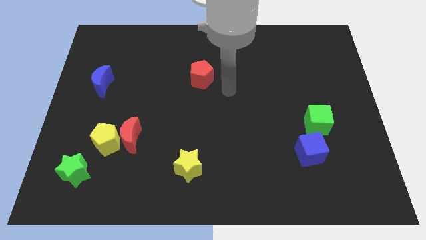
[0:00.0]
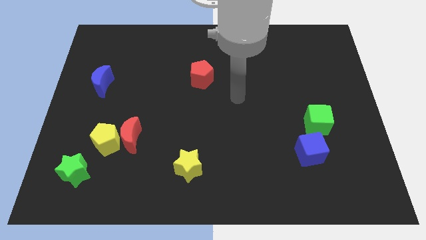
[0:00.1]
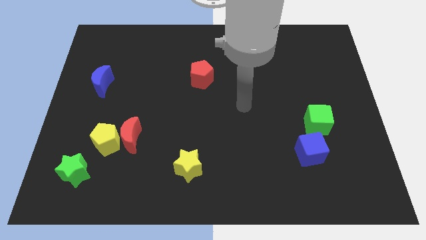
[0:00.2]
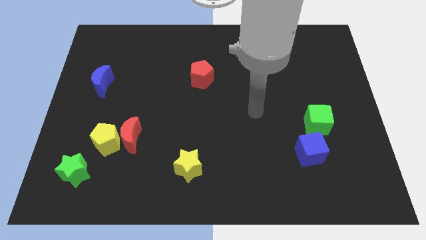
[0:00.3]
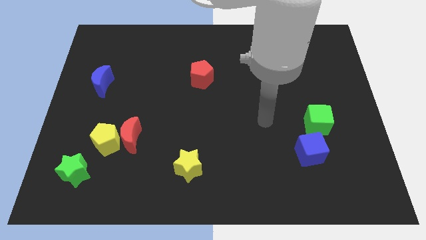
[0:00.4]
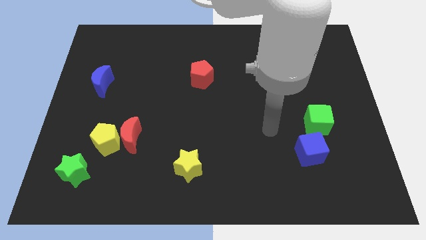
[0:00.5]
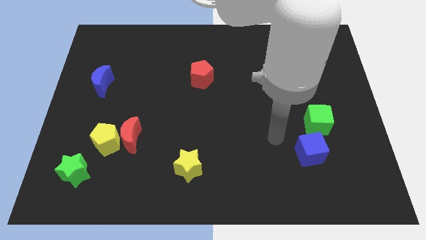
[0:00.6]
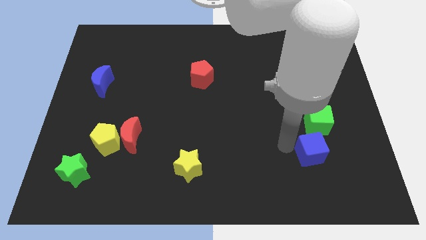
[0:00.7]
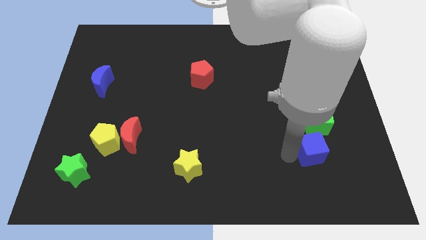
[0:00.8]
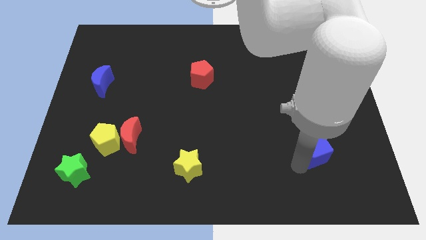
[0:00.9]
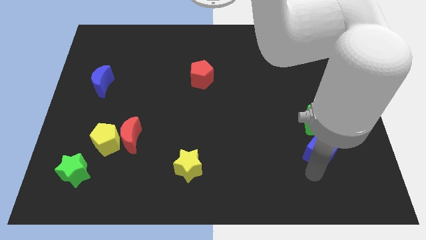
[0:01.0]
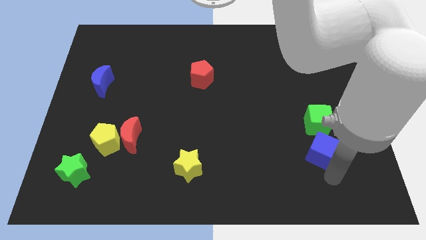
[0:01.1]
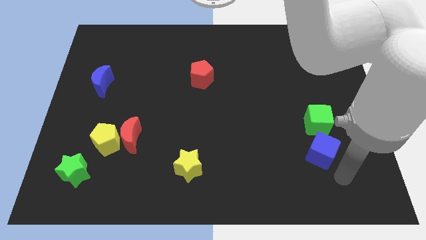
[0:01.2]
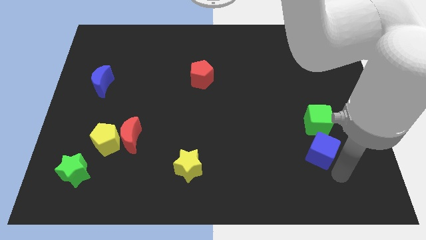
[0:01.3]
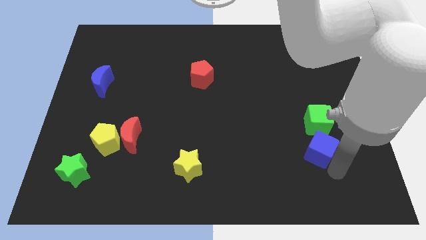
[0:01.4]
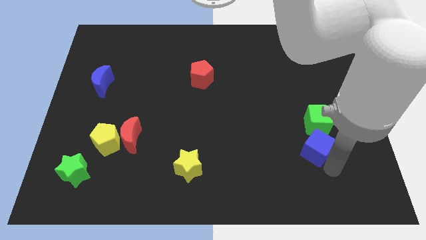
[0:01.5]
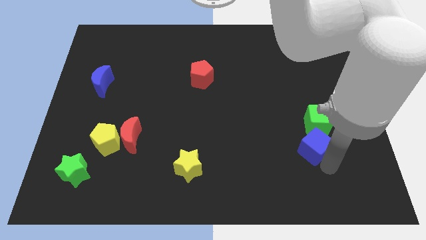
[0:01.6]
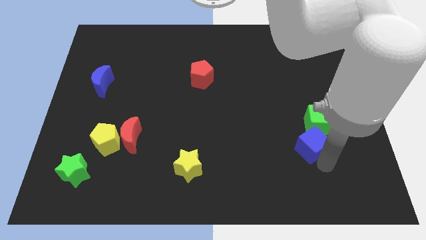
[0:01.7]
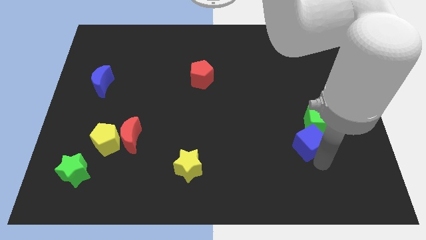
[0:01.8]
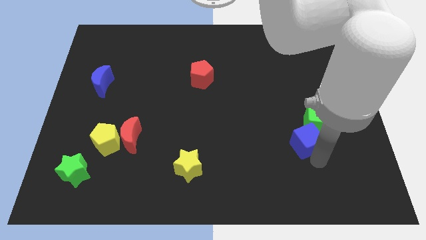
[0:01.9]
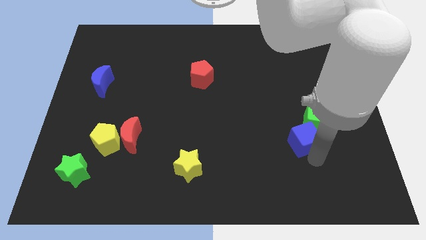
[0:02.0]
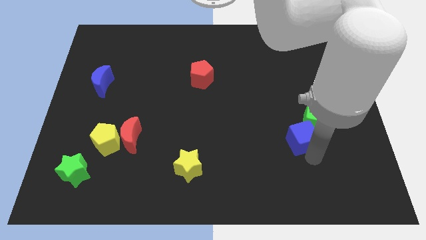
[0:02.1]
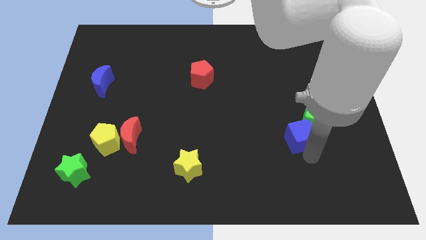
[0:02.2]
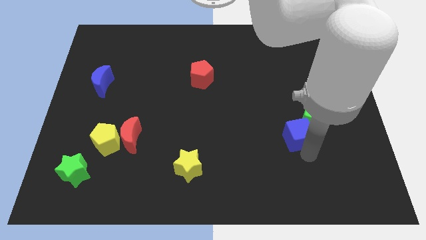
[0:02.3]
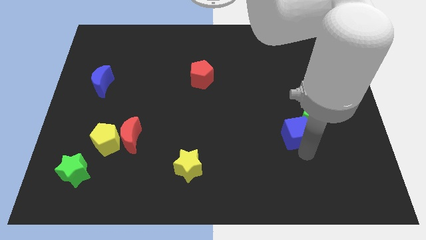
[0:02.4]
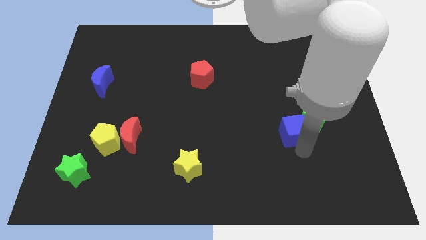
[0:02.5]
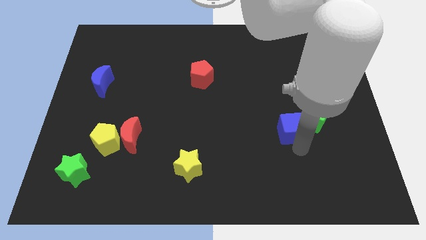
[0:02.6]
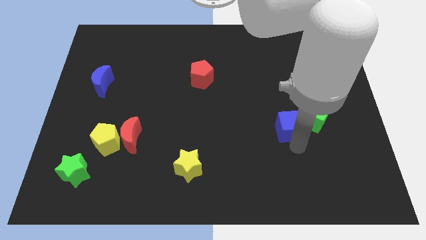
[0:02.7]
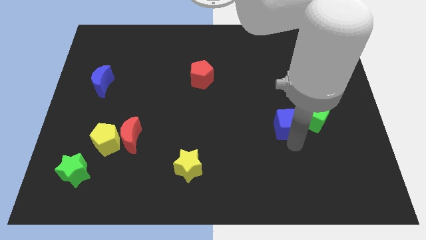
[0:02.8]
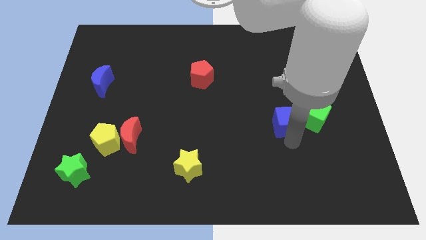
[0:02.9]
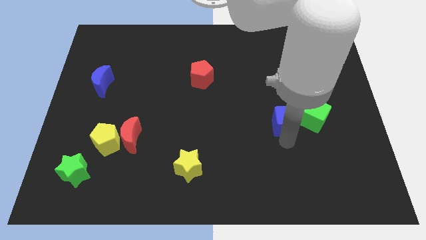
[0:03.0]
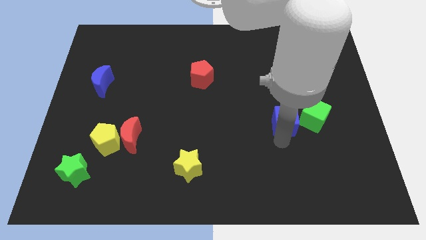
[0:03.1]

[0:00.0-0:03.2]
push the blue cube up a little

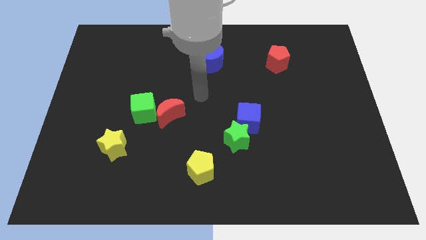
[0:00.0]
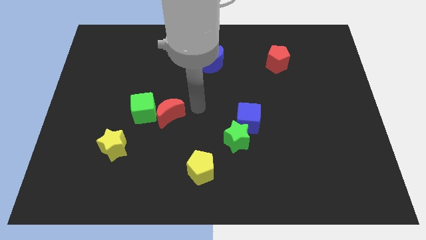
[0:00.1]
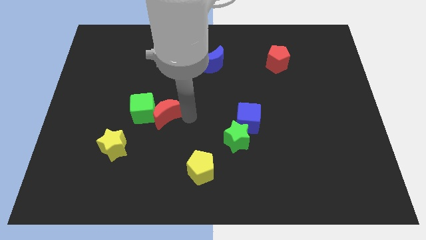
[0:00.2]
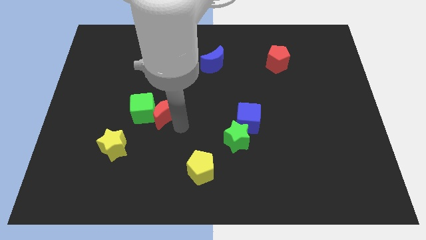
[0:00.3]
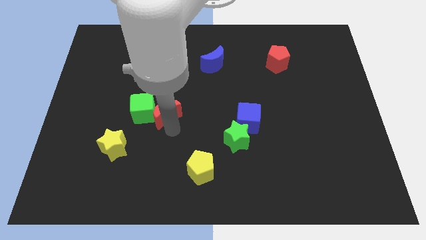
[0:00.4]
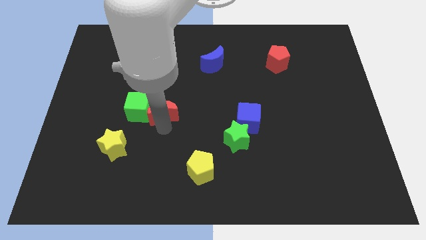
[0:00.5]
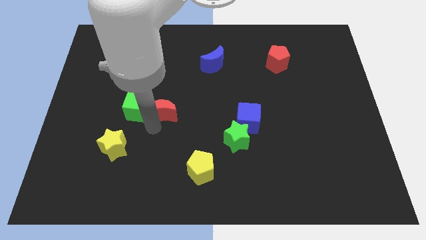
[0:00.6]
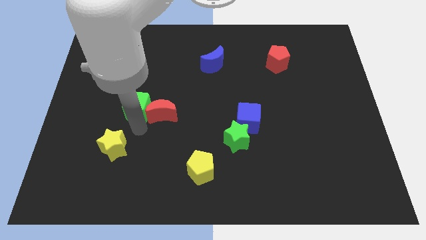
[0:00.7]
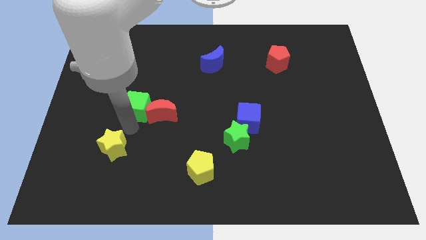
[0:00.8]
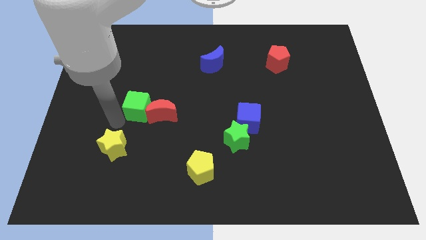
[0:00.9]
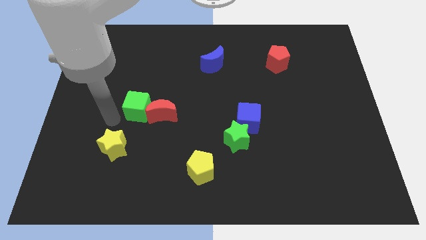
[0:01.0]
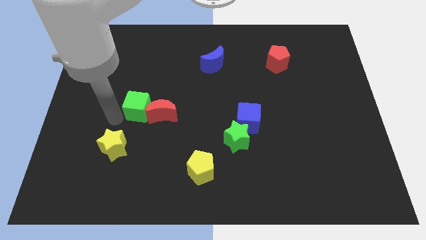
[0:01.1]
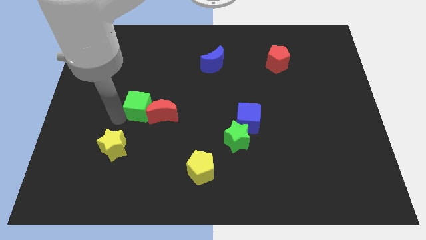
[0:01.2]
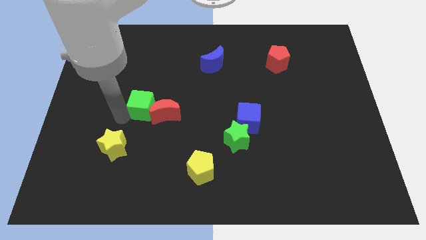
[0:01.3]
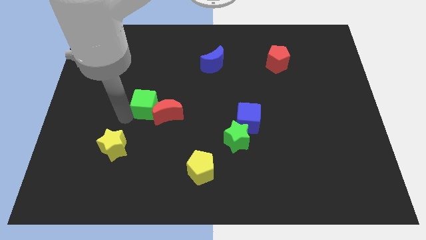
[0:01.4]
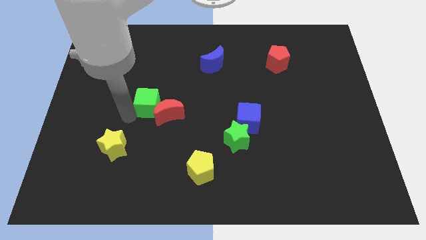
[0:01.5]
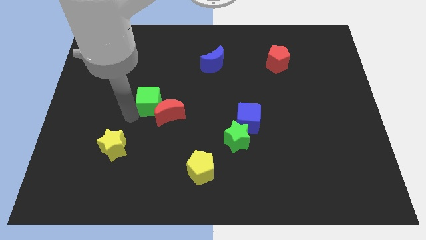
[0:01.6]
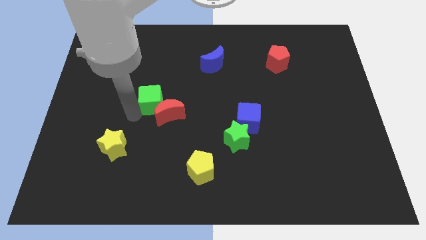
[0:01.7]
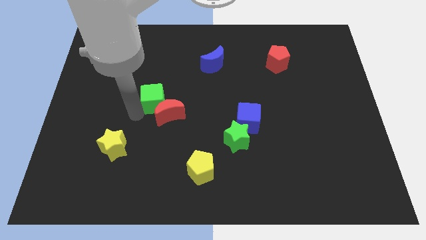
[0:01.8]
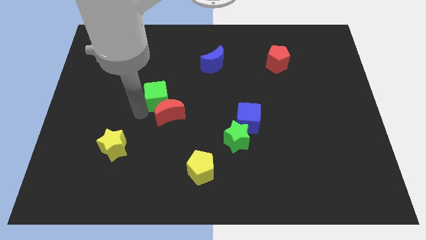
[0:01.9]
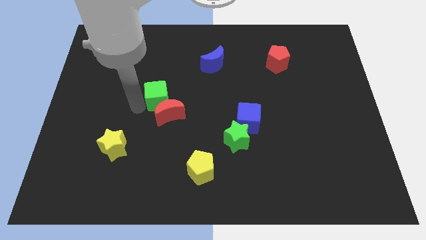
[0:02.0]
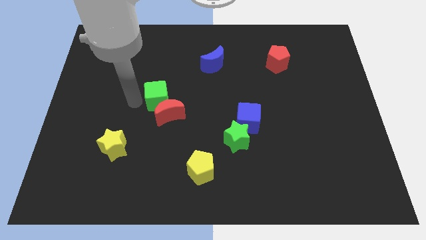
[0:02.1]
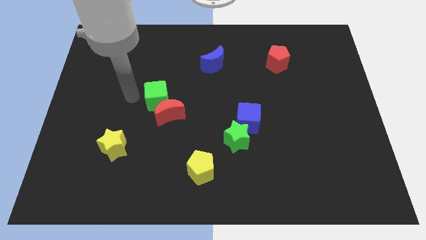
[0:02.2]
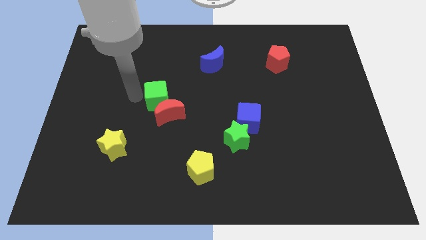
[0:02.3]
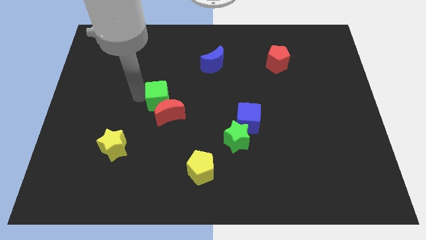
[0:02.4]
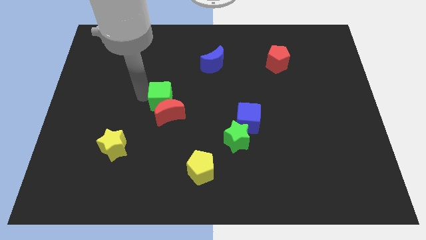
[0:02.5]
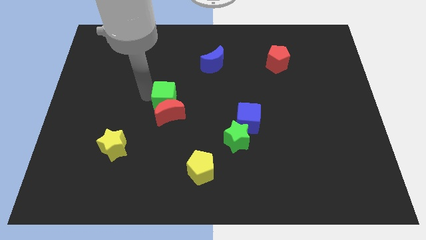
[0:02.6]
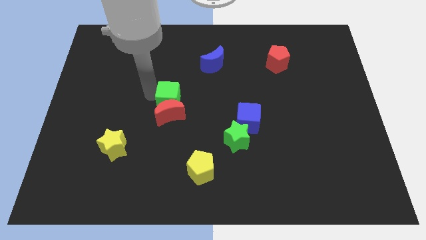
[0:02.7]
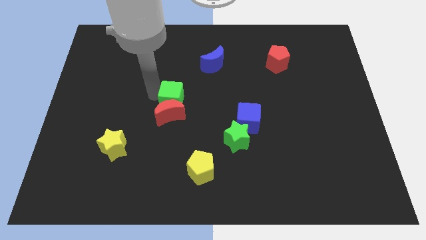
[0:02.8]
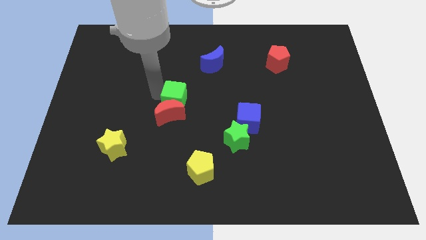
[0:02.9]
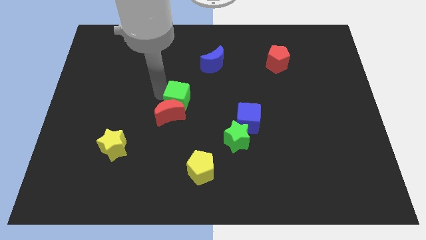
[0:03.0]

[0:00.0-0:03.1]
slightly push the green cube to the right

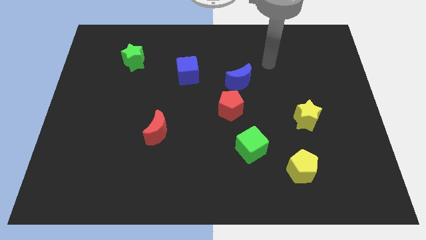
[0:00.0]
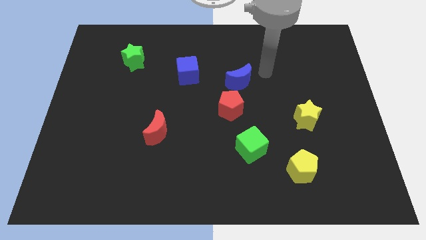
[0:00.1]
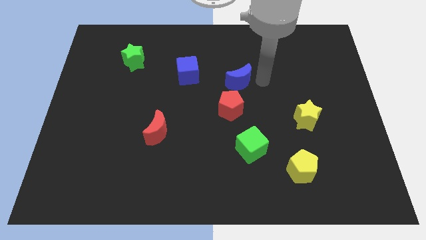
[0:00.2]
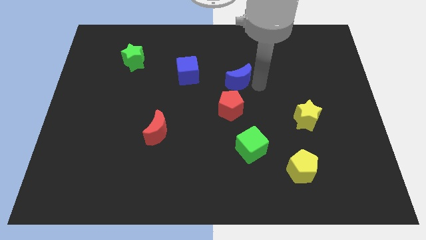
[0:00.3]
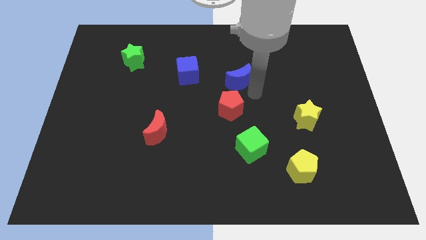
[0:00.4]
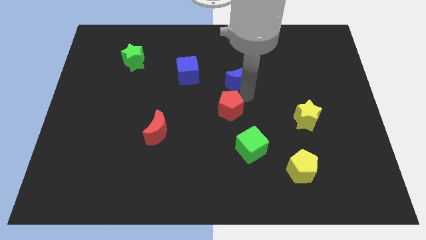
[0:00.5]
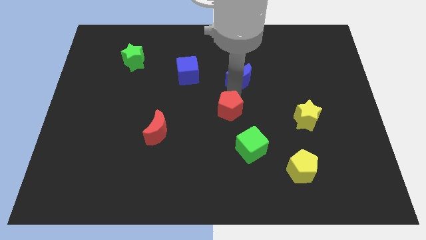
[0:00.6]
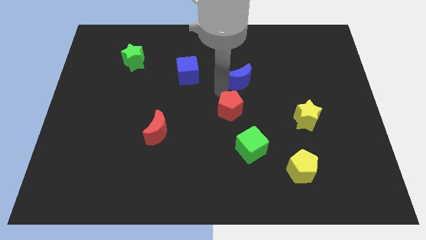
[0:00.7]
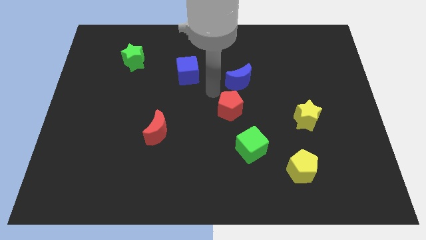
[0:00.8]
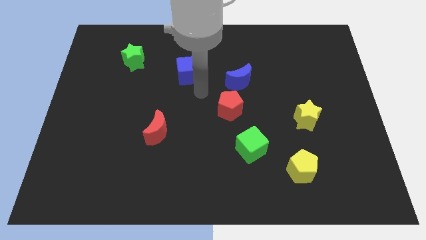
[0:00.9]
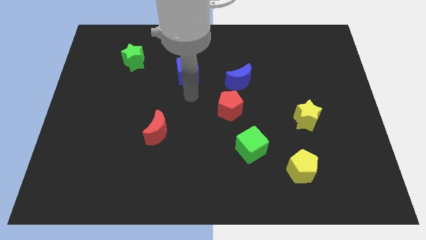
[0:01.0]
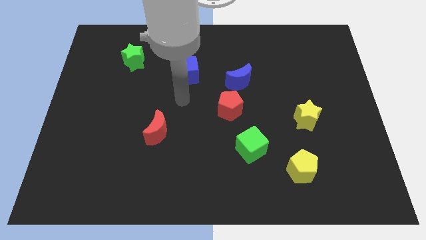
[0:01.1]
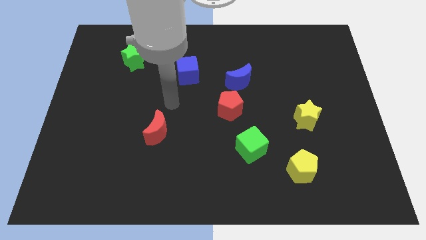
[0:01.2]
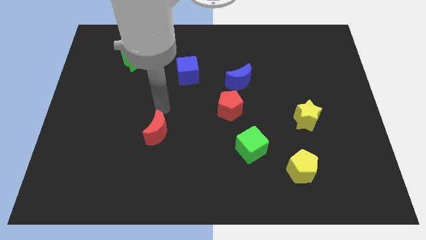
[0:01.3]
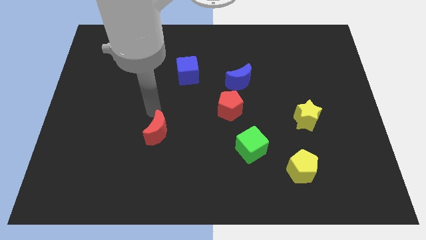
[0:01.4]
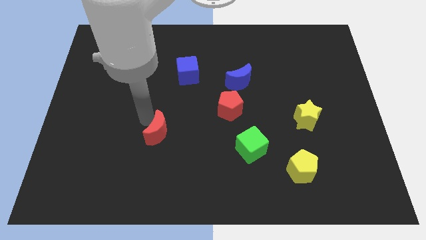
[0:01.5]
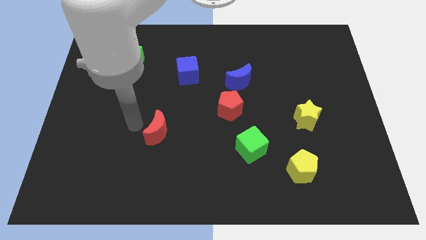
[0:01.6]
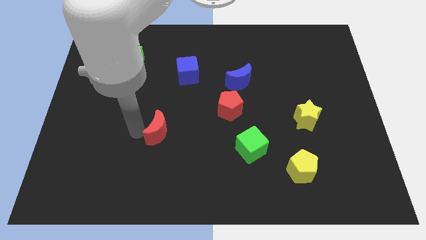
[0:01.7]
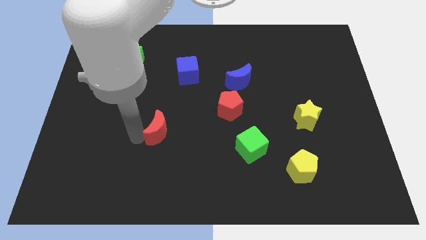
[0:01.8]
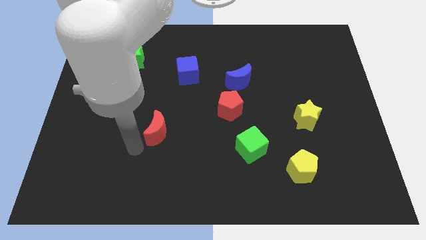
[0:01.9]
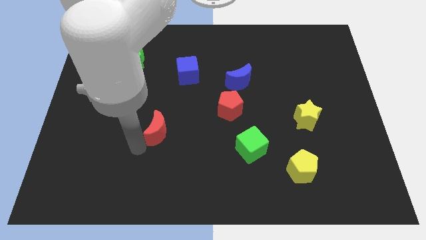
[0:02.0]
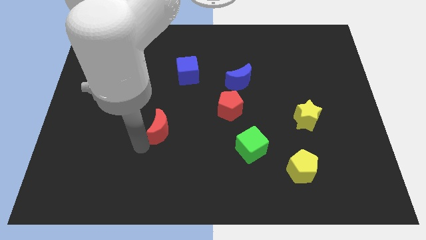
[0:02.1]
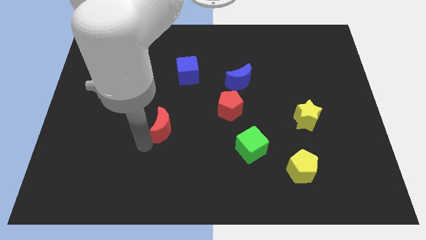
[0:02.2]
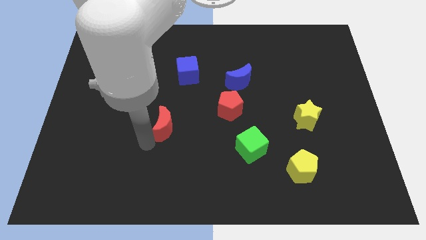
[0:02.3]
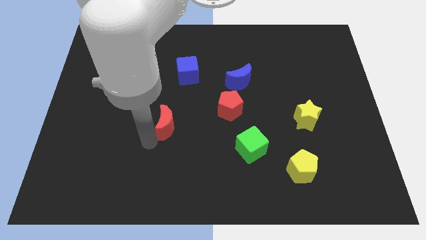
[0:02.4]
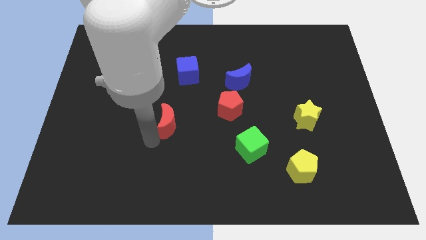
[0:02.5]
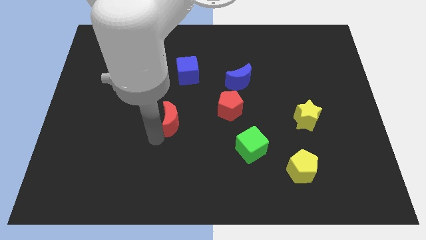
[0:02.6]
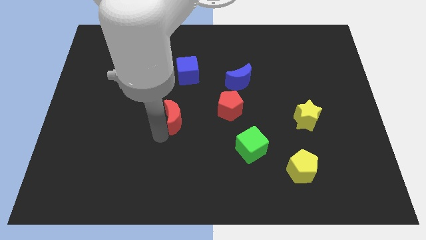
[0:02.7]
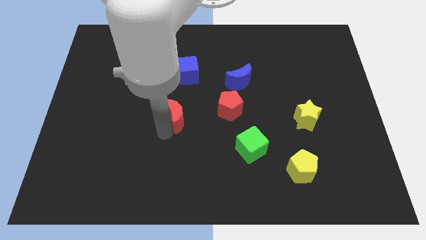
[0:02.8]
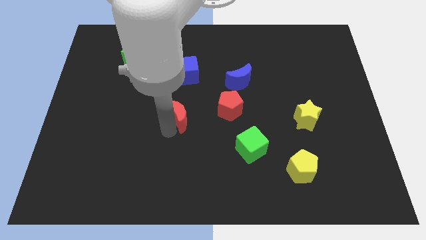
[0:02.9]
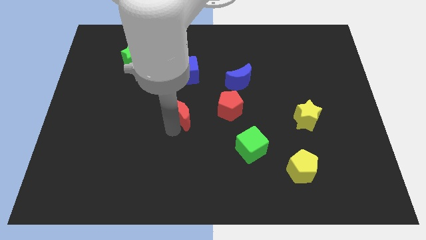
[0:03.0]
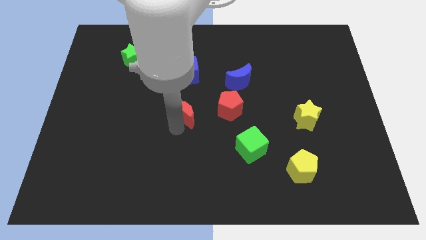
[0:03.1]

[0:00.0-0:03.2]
move the red moon somewhat upwards and right
